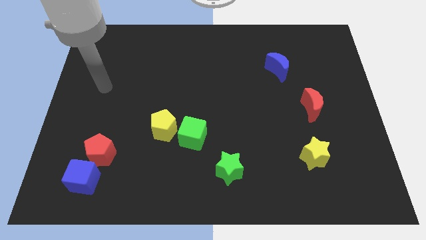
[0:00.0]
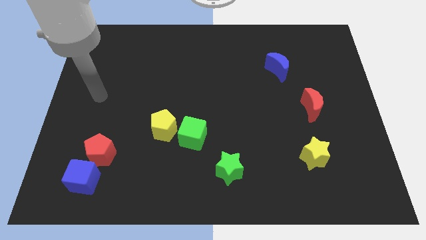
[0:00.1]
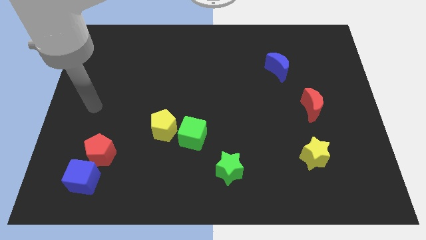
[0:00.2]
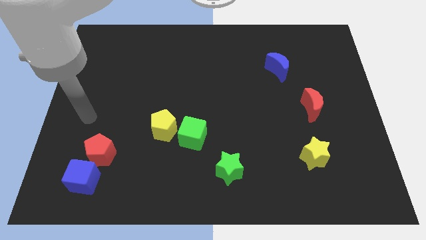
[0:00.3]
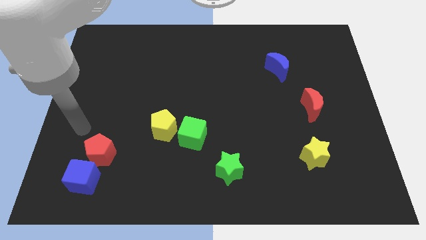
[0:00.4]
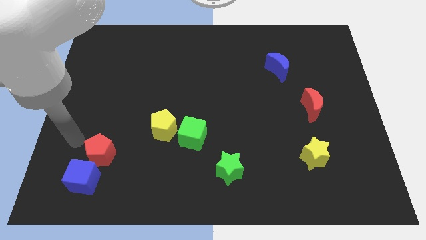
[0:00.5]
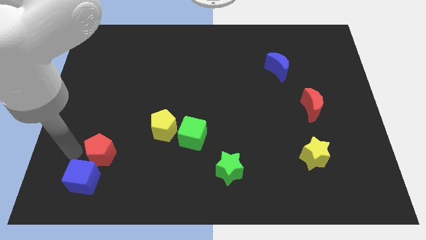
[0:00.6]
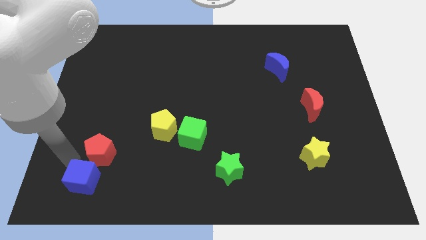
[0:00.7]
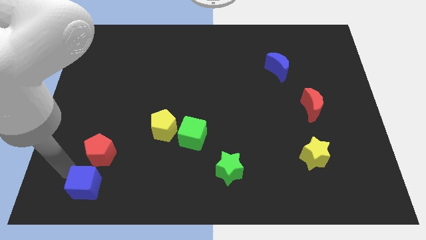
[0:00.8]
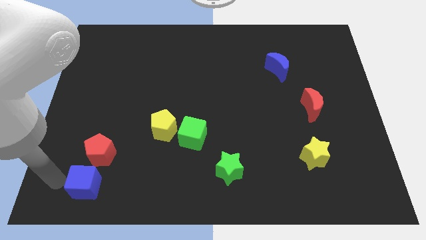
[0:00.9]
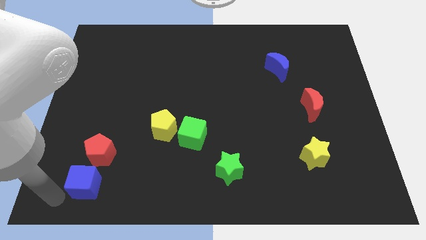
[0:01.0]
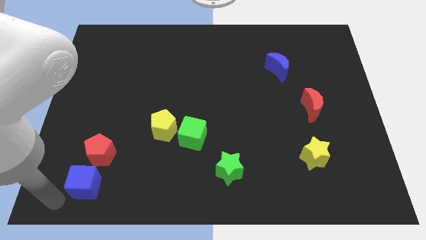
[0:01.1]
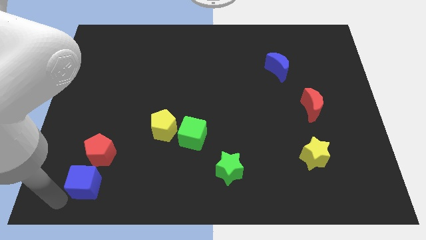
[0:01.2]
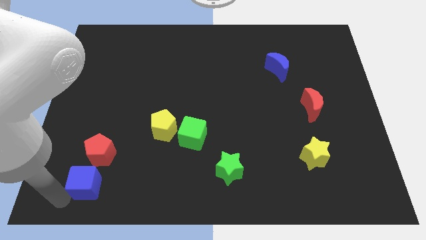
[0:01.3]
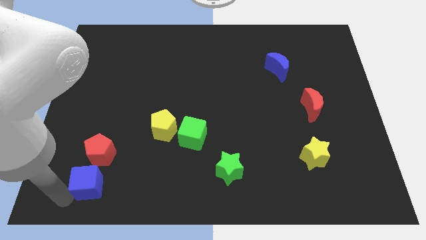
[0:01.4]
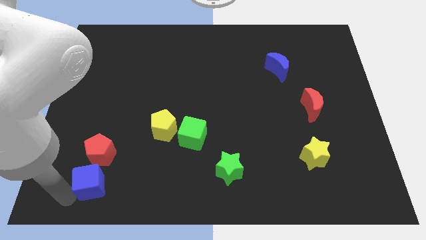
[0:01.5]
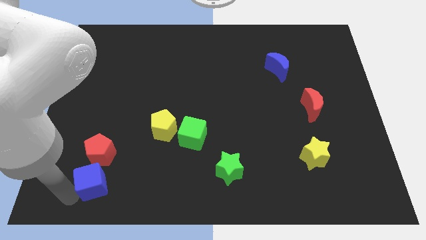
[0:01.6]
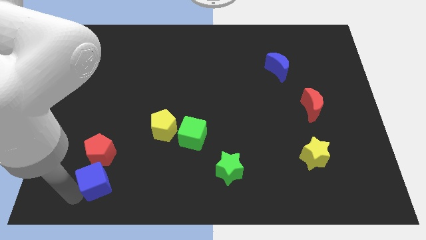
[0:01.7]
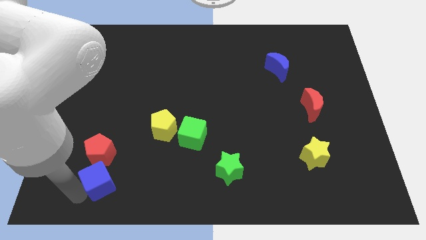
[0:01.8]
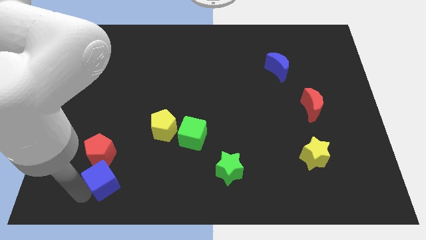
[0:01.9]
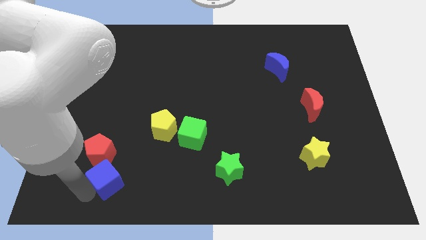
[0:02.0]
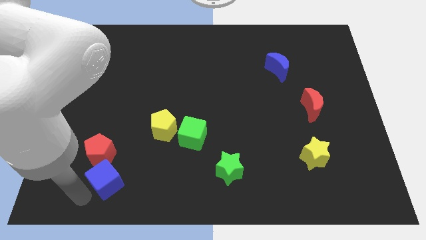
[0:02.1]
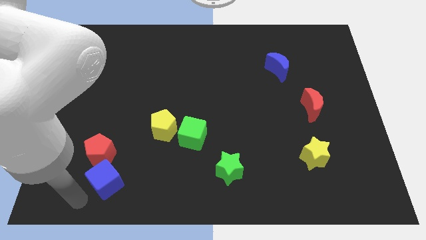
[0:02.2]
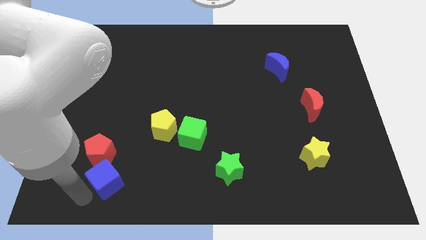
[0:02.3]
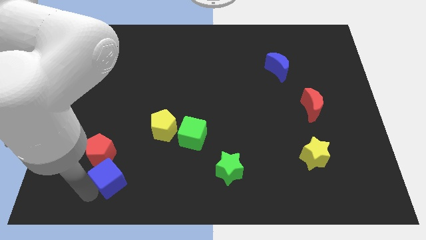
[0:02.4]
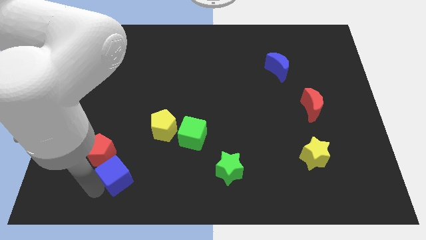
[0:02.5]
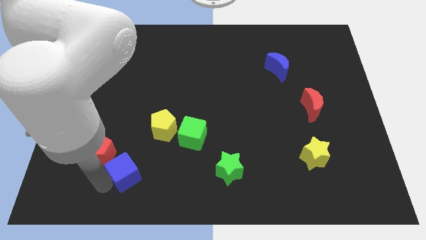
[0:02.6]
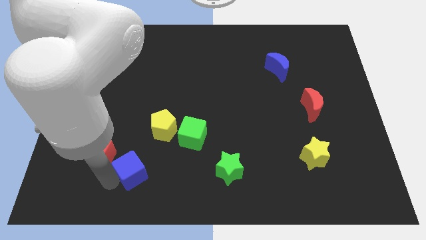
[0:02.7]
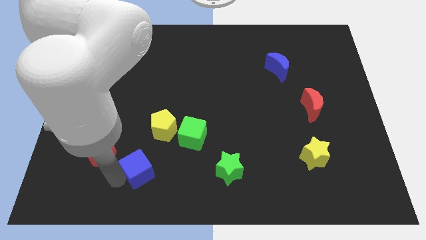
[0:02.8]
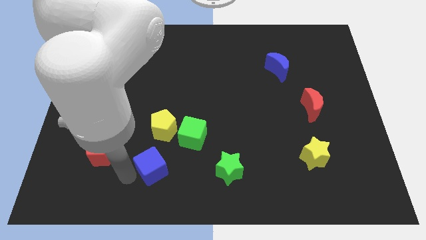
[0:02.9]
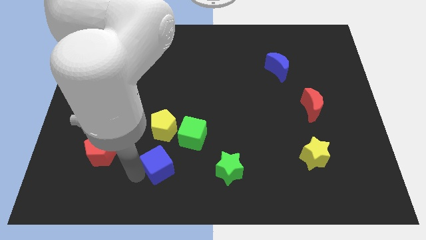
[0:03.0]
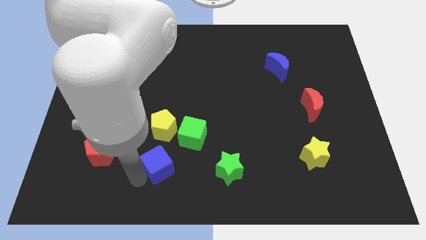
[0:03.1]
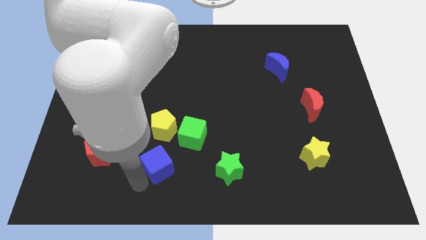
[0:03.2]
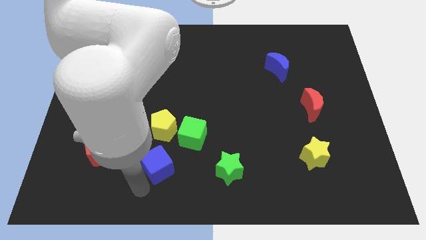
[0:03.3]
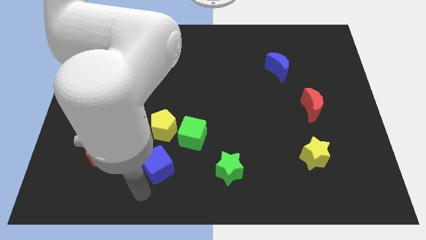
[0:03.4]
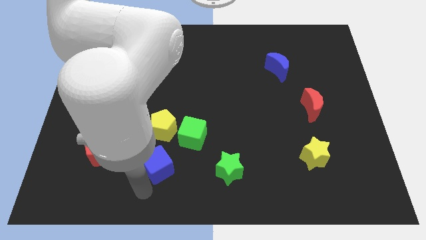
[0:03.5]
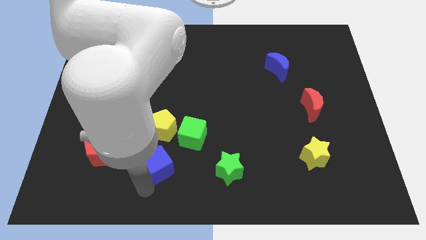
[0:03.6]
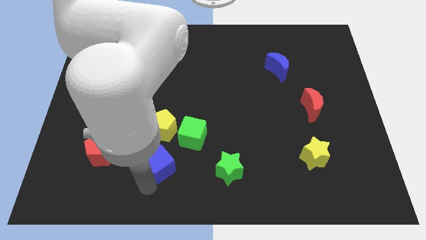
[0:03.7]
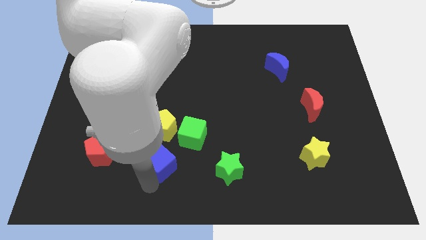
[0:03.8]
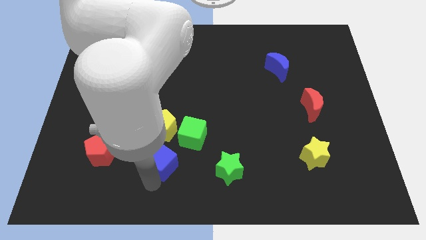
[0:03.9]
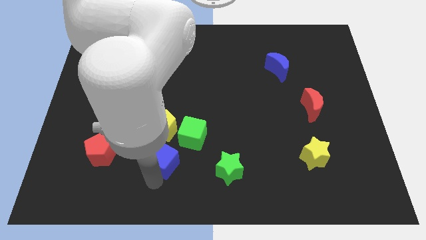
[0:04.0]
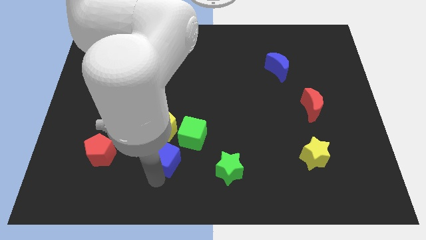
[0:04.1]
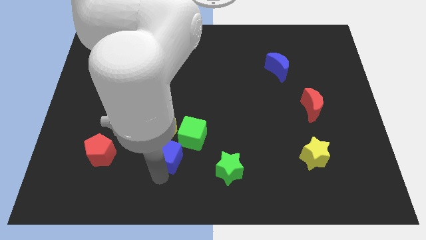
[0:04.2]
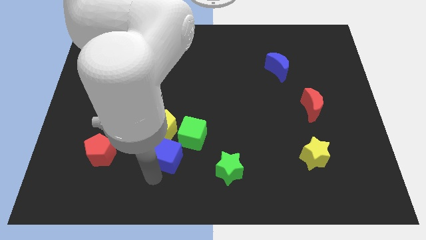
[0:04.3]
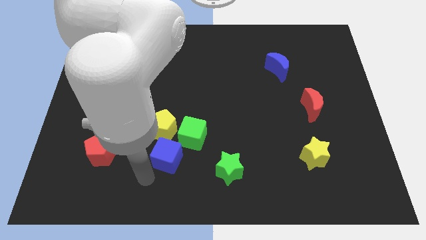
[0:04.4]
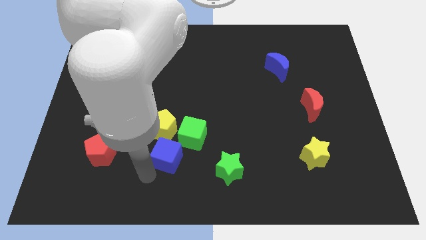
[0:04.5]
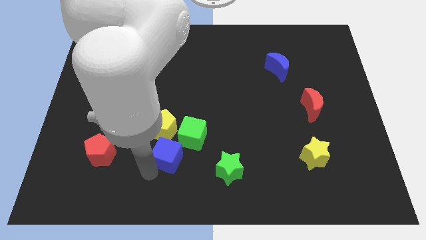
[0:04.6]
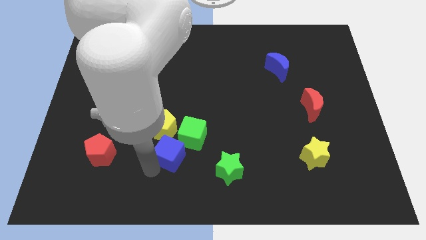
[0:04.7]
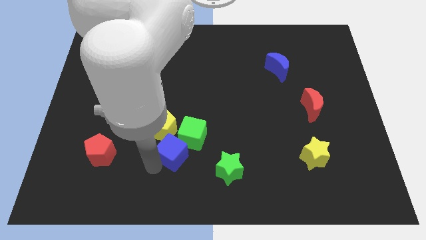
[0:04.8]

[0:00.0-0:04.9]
move the blue cube towards the green cube

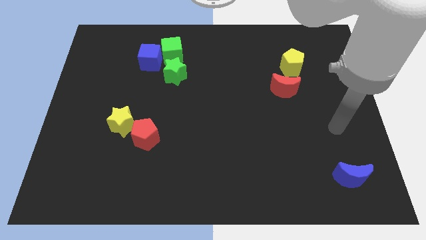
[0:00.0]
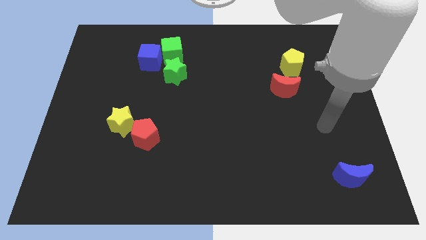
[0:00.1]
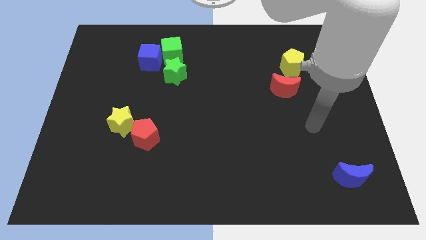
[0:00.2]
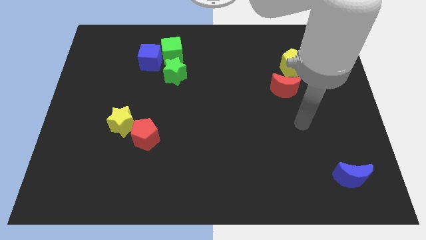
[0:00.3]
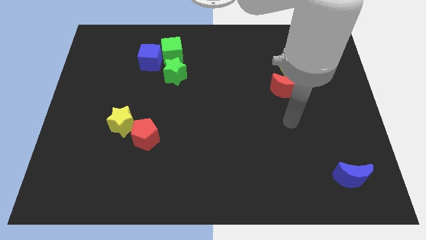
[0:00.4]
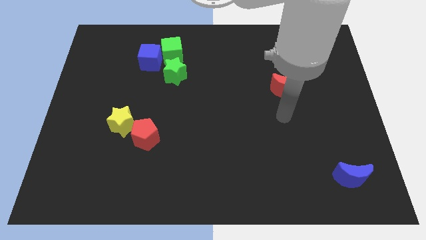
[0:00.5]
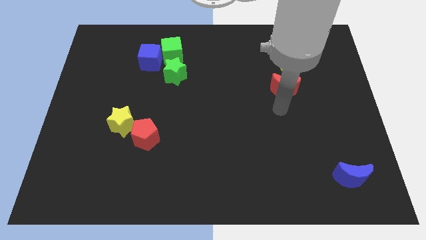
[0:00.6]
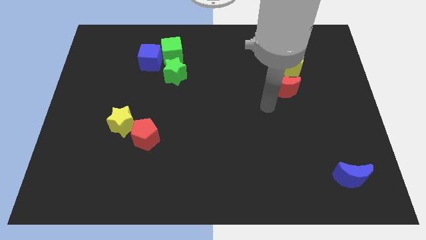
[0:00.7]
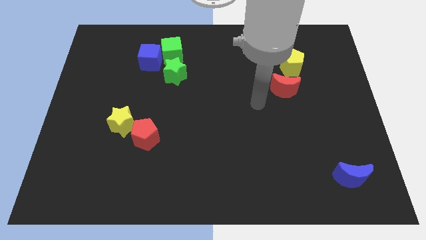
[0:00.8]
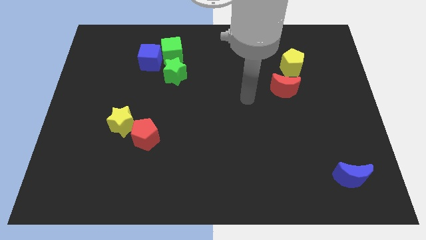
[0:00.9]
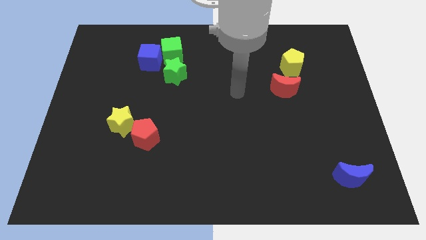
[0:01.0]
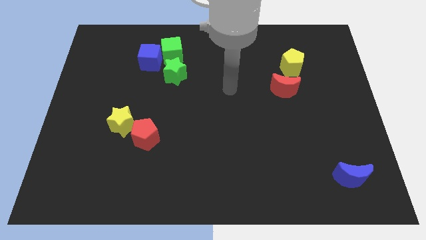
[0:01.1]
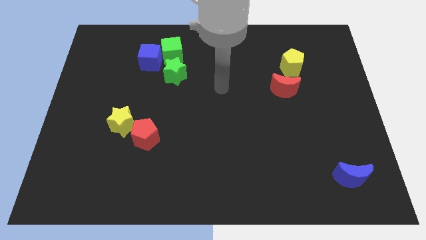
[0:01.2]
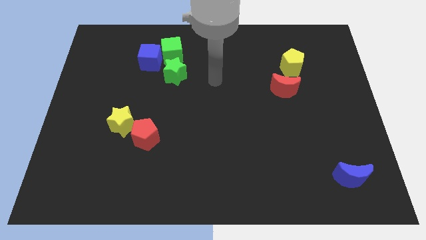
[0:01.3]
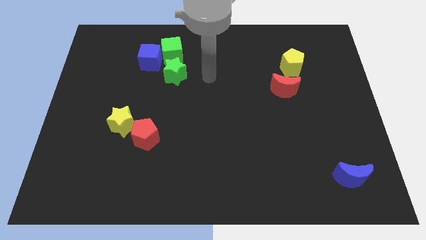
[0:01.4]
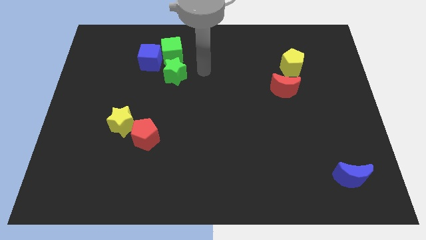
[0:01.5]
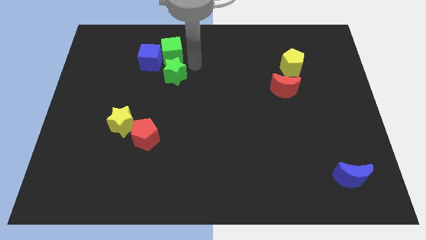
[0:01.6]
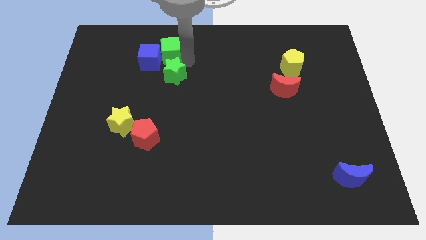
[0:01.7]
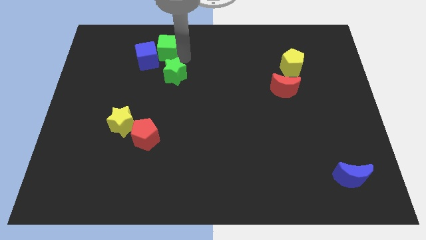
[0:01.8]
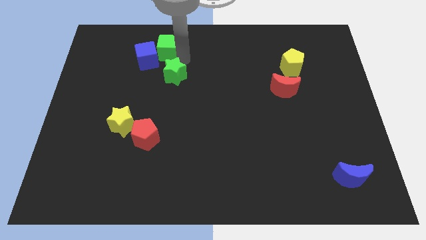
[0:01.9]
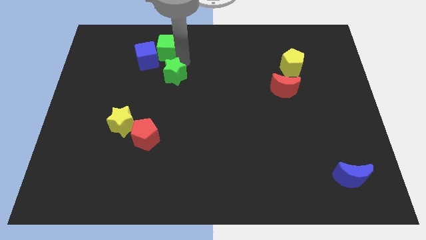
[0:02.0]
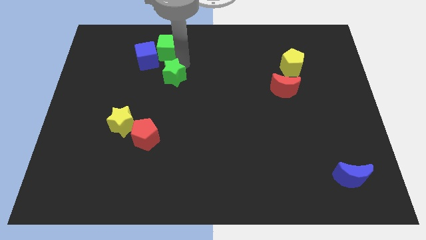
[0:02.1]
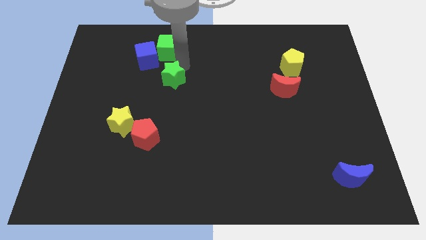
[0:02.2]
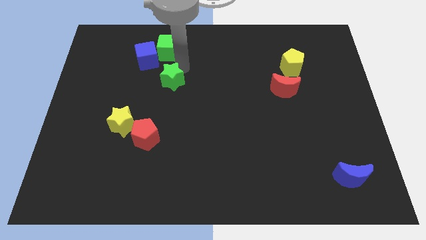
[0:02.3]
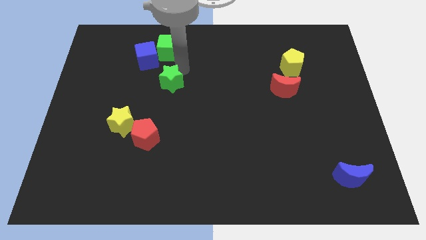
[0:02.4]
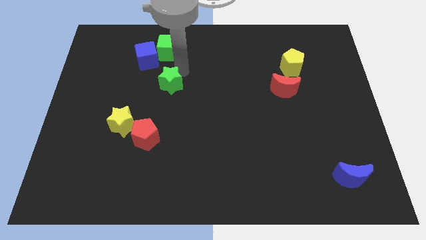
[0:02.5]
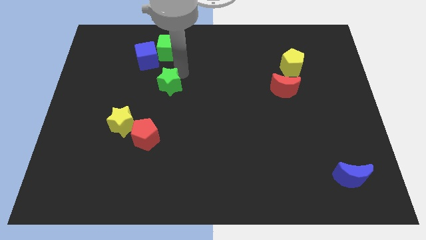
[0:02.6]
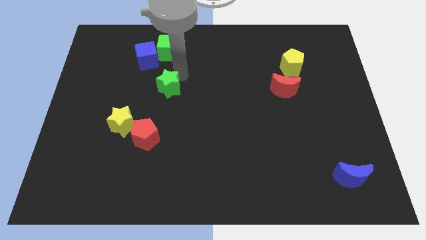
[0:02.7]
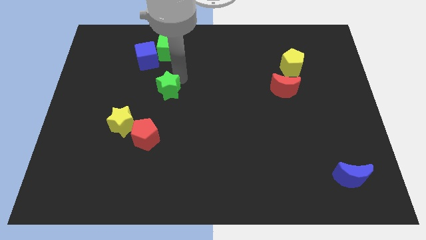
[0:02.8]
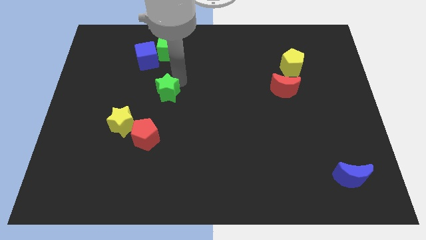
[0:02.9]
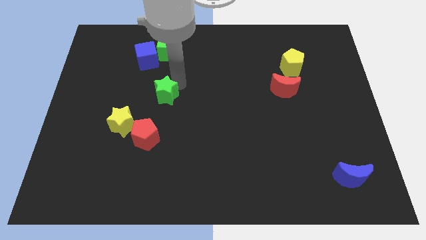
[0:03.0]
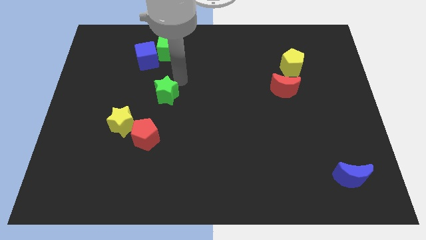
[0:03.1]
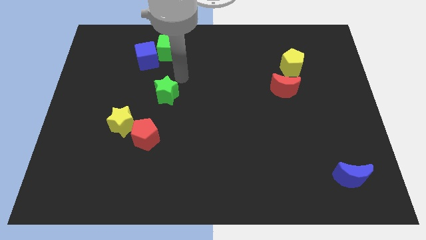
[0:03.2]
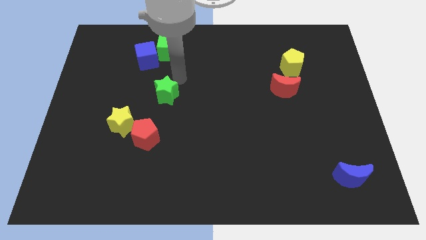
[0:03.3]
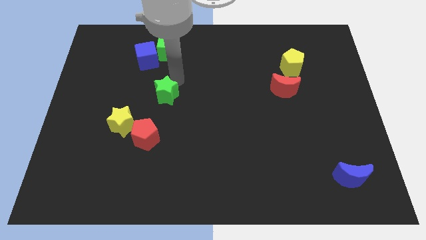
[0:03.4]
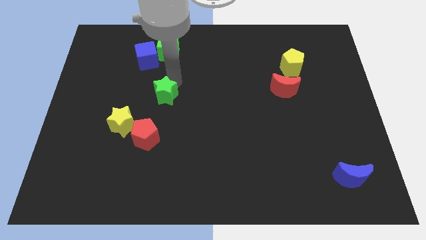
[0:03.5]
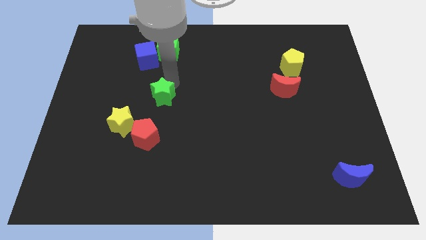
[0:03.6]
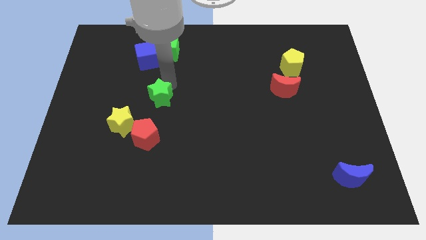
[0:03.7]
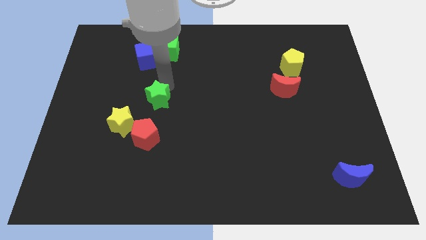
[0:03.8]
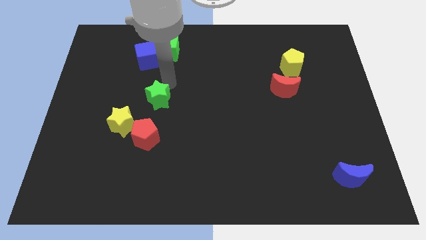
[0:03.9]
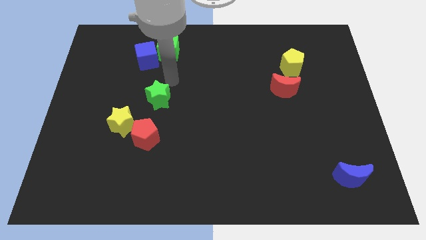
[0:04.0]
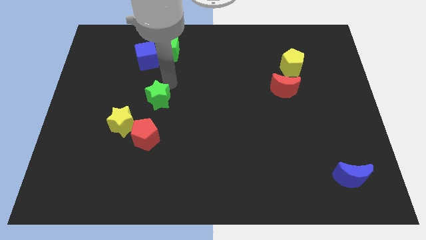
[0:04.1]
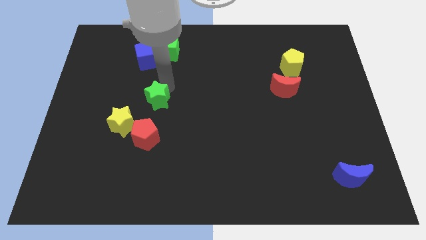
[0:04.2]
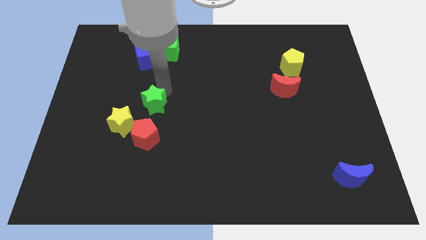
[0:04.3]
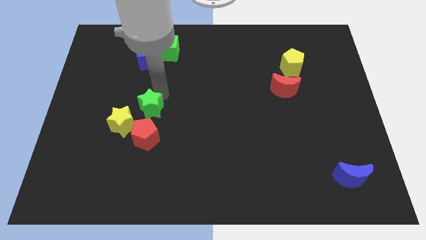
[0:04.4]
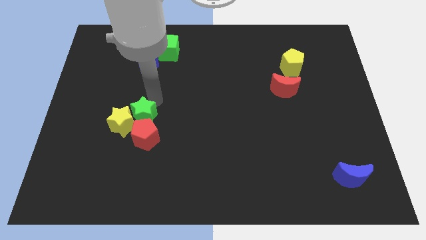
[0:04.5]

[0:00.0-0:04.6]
slide the green star next to the red pentagon
